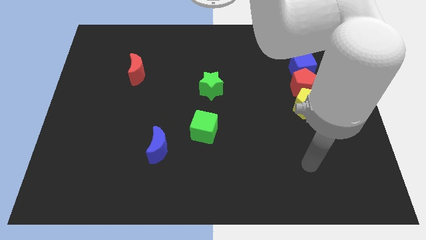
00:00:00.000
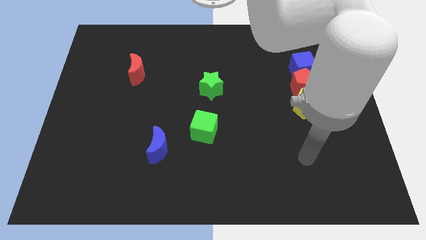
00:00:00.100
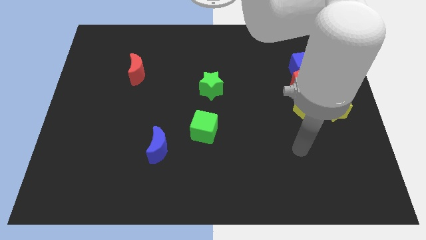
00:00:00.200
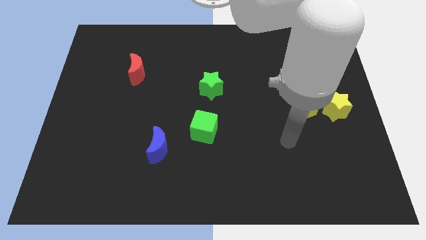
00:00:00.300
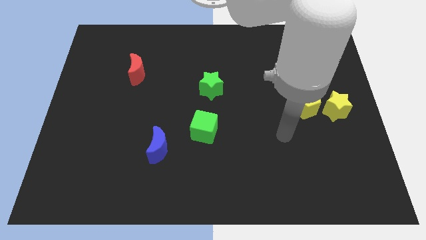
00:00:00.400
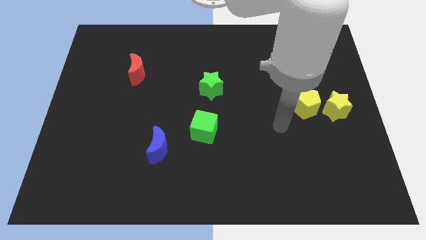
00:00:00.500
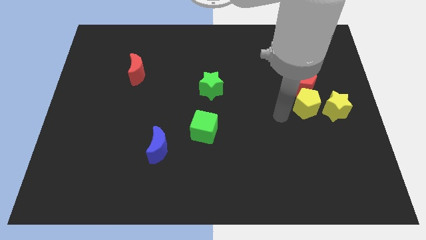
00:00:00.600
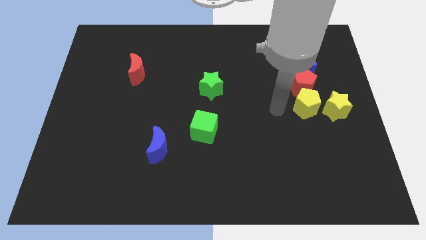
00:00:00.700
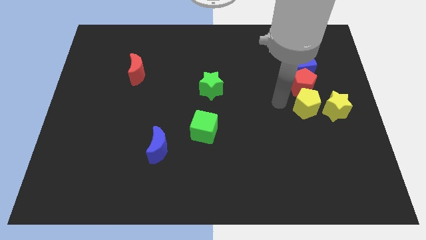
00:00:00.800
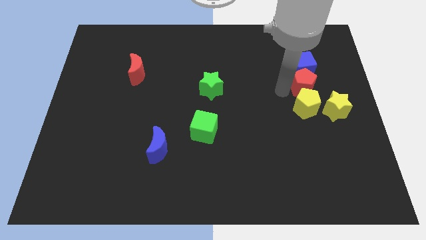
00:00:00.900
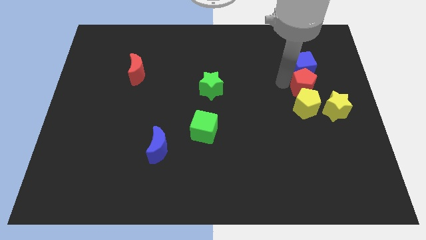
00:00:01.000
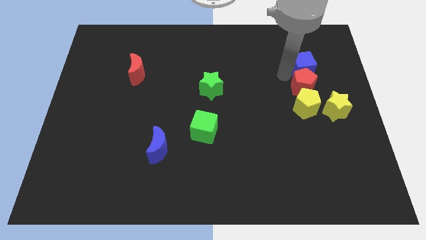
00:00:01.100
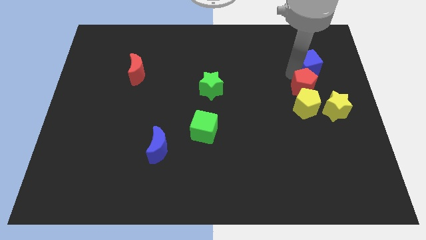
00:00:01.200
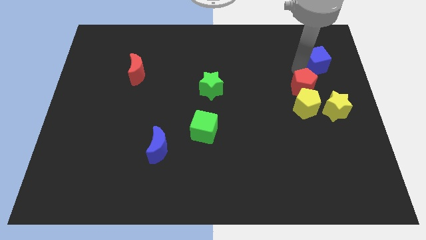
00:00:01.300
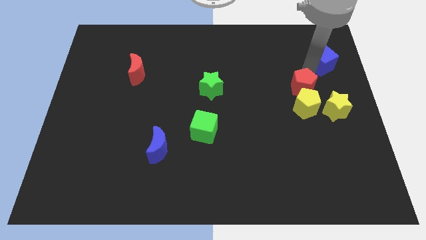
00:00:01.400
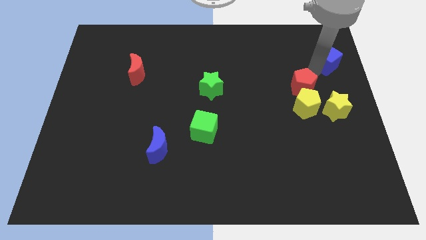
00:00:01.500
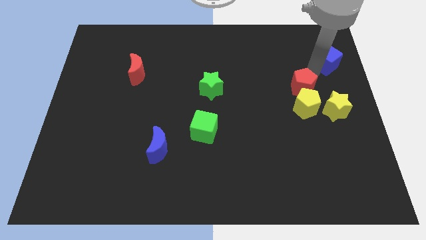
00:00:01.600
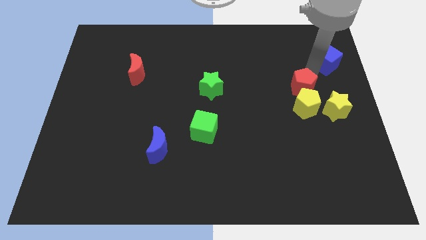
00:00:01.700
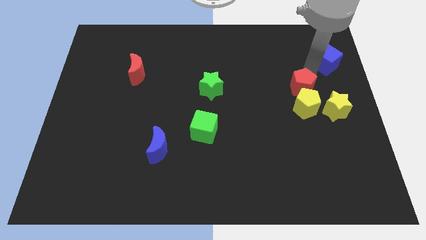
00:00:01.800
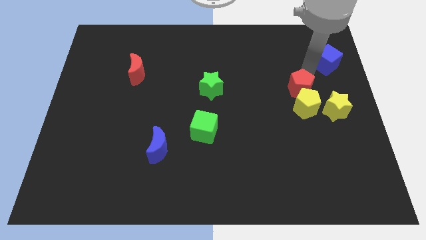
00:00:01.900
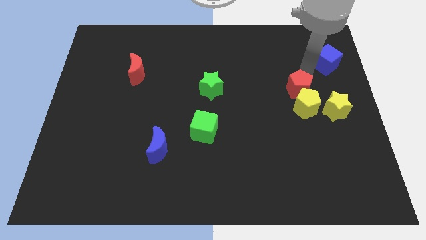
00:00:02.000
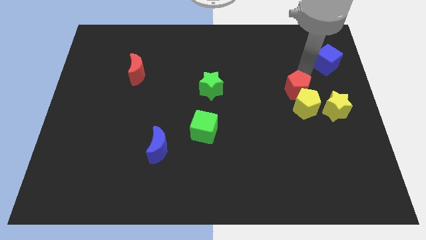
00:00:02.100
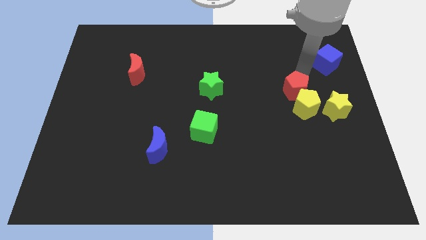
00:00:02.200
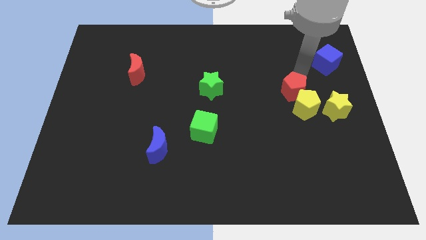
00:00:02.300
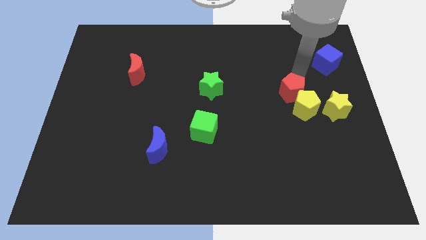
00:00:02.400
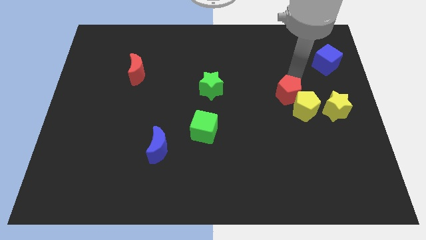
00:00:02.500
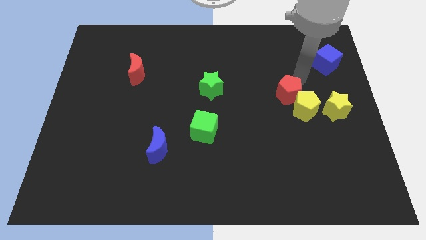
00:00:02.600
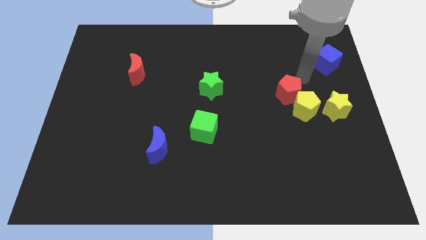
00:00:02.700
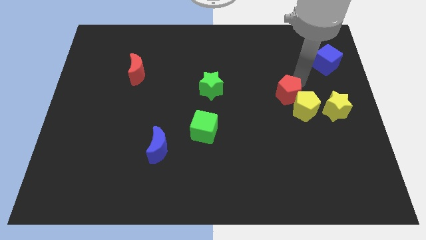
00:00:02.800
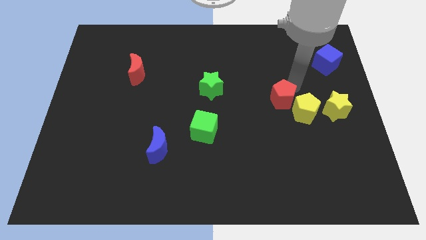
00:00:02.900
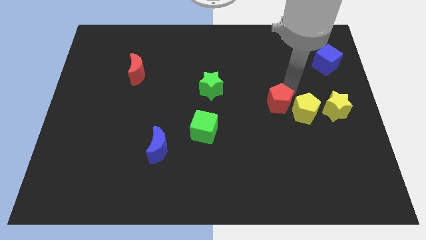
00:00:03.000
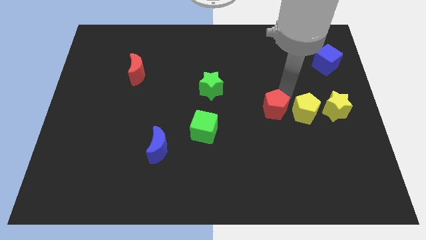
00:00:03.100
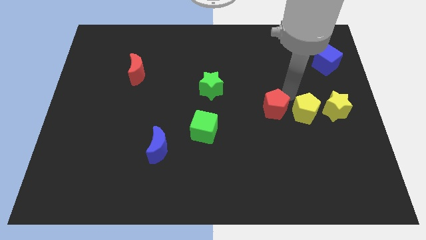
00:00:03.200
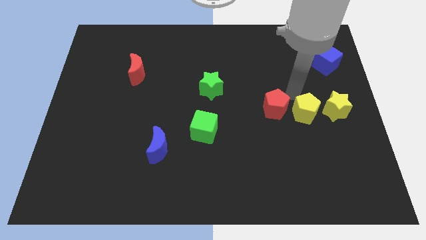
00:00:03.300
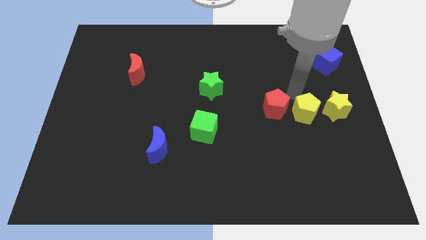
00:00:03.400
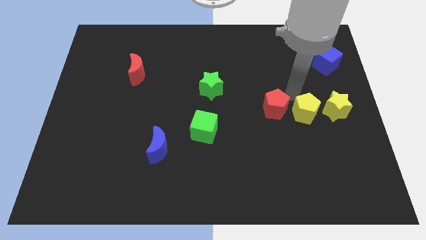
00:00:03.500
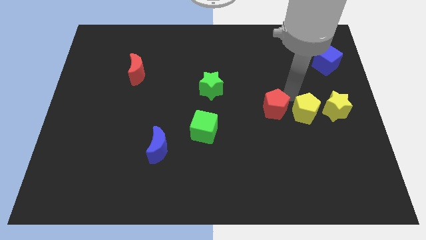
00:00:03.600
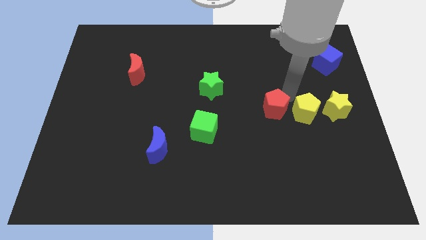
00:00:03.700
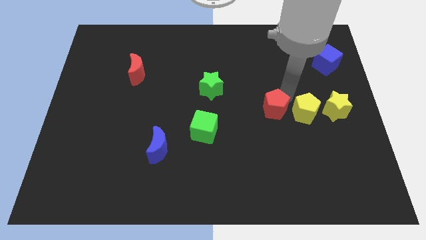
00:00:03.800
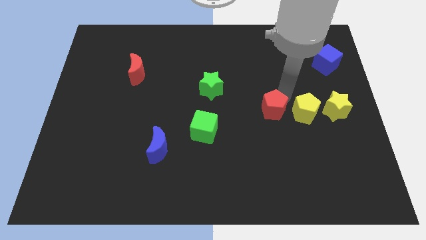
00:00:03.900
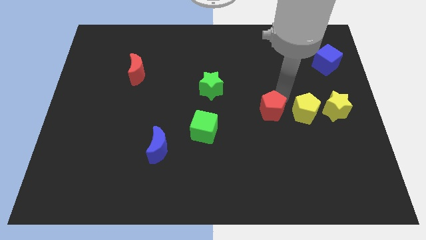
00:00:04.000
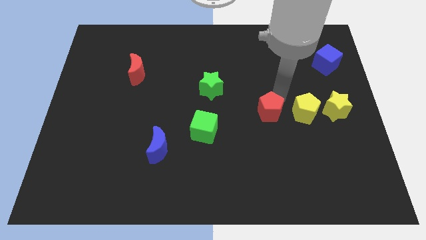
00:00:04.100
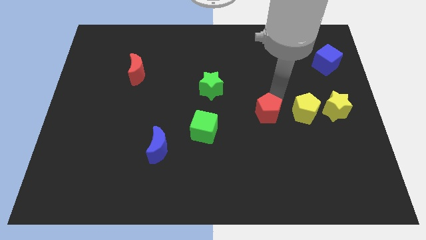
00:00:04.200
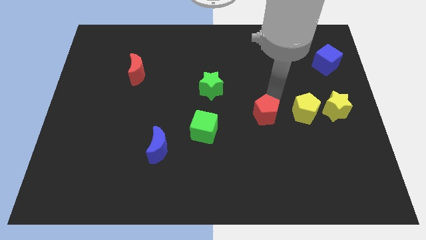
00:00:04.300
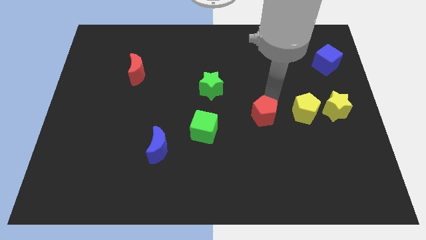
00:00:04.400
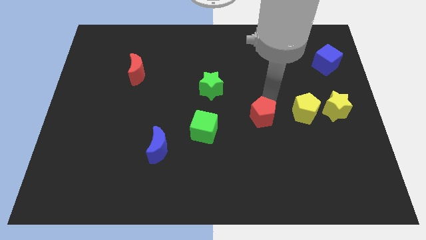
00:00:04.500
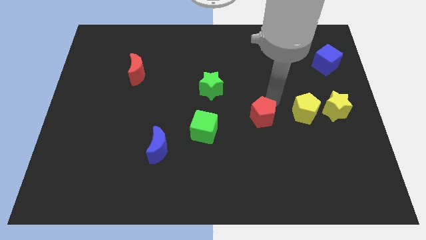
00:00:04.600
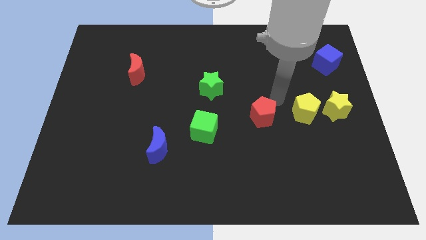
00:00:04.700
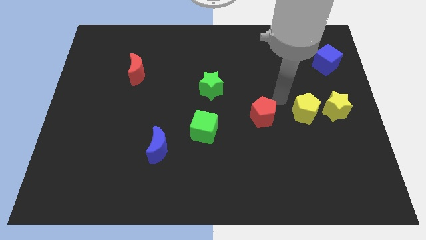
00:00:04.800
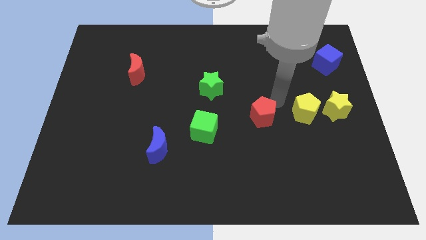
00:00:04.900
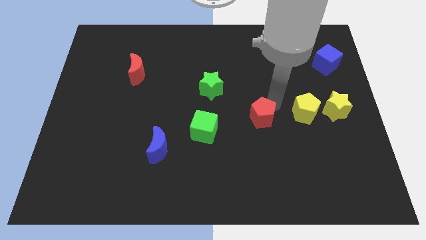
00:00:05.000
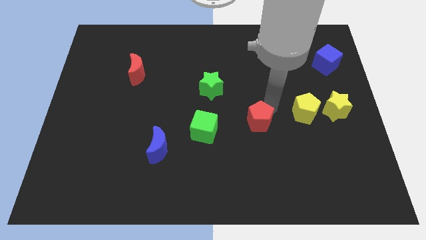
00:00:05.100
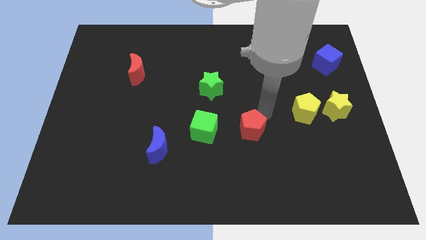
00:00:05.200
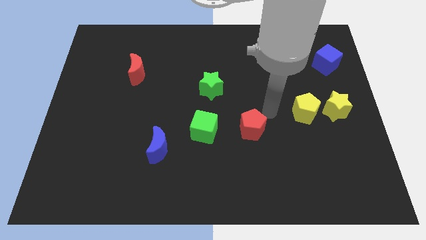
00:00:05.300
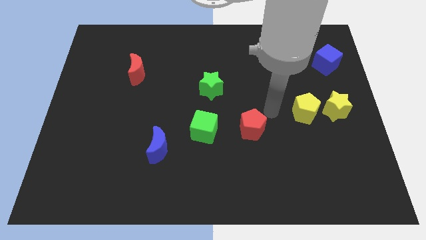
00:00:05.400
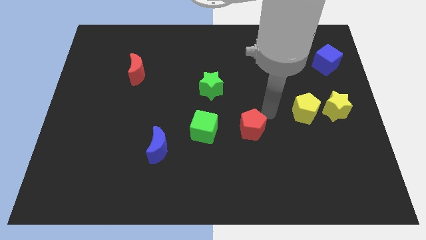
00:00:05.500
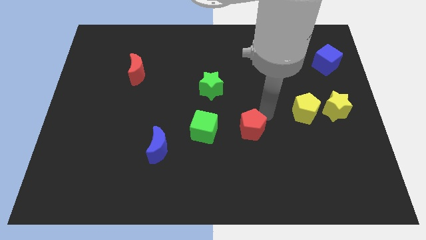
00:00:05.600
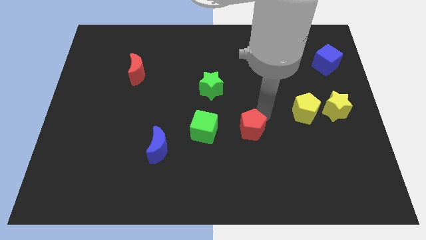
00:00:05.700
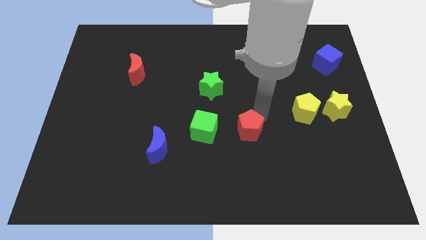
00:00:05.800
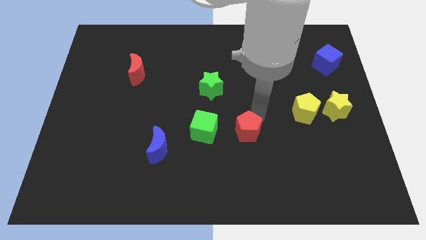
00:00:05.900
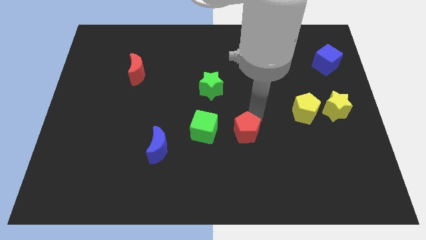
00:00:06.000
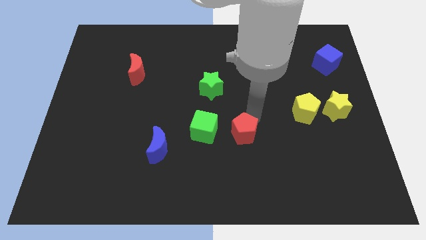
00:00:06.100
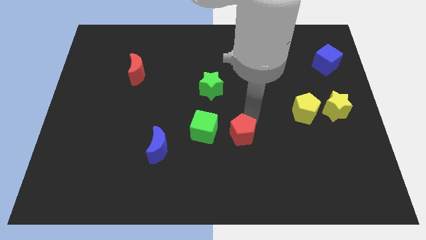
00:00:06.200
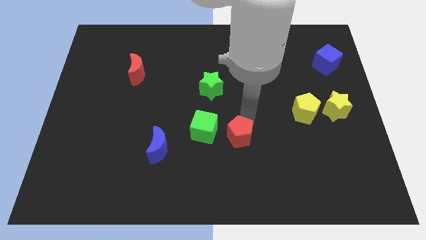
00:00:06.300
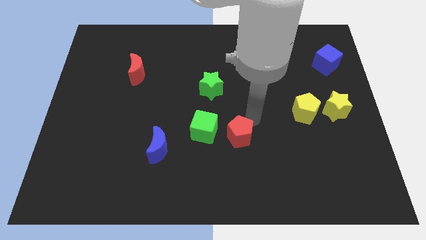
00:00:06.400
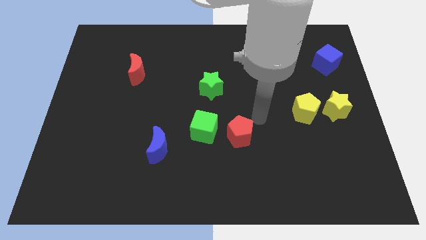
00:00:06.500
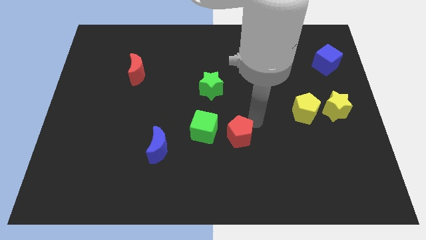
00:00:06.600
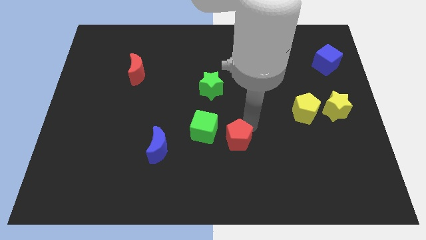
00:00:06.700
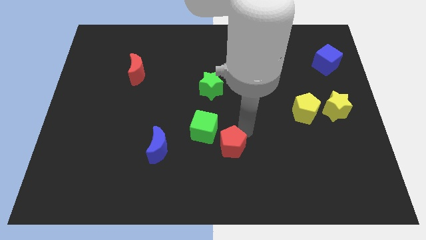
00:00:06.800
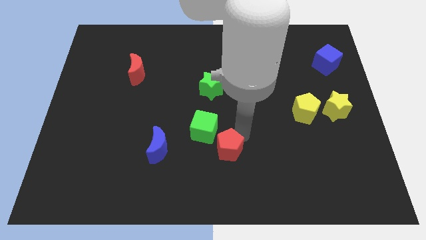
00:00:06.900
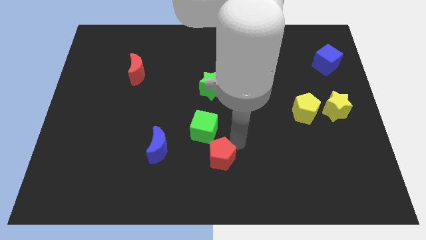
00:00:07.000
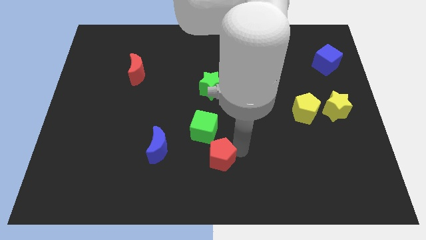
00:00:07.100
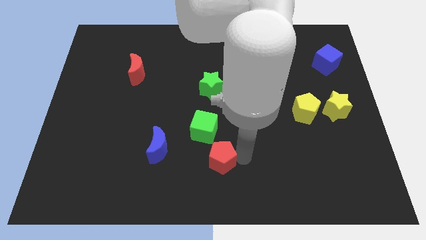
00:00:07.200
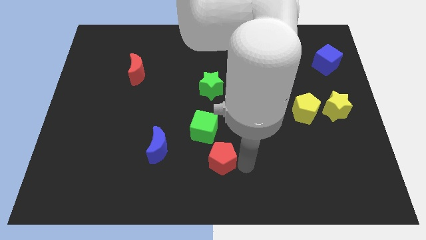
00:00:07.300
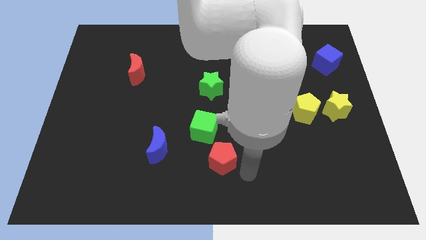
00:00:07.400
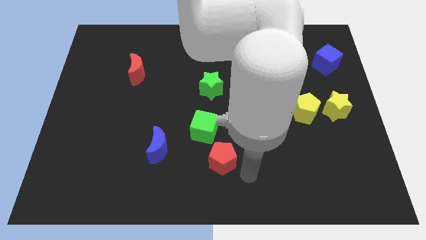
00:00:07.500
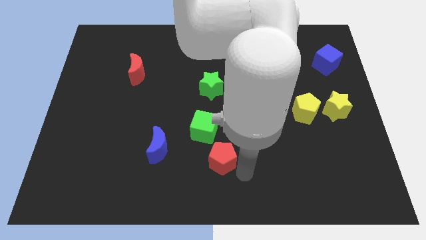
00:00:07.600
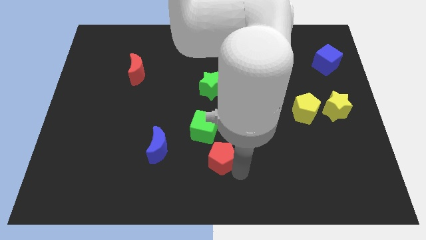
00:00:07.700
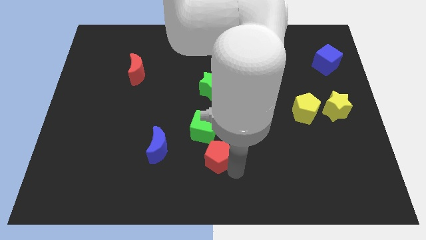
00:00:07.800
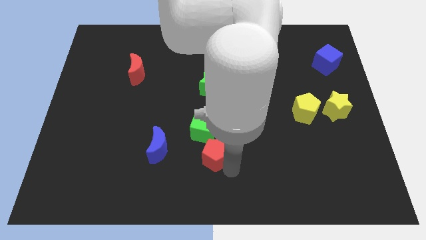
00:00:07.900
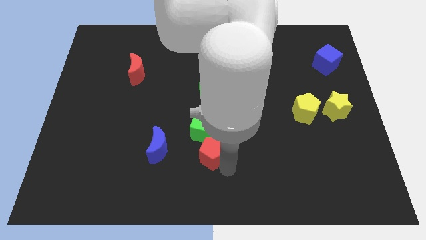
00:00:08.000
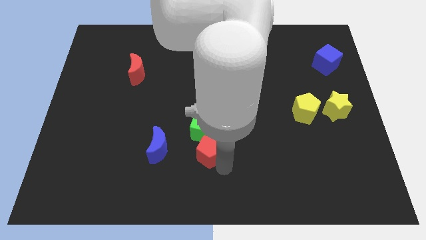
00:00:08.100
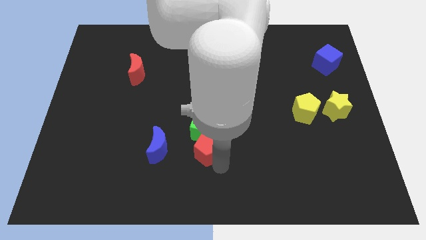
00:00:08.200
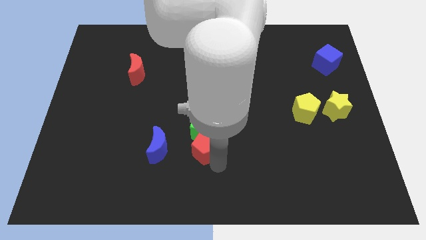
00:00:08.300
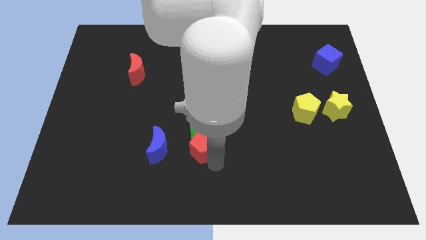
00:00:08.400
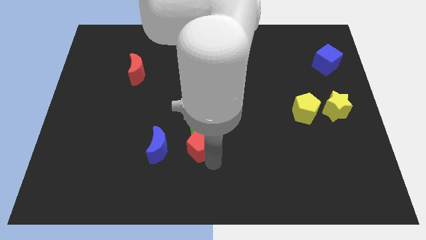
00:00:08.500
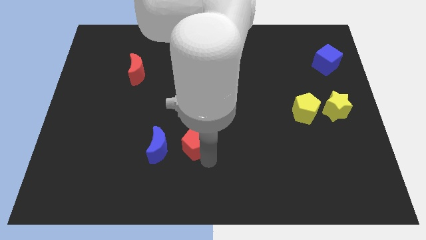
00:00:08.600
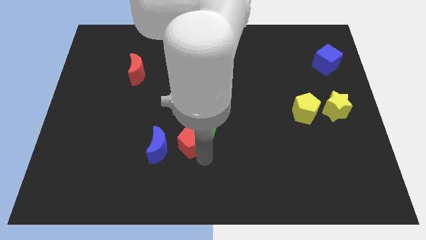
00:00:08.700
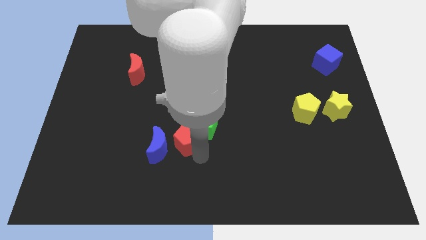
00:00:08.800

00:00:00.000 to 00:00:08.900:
push the red pentagon just left of the green cube
